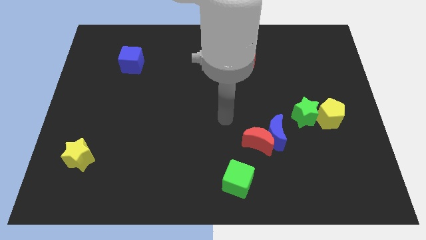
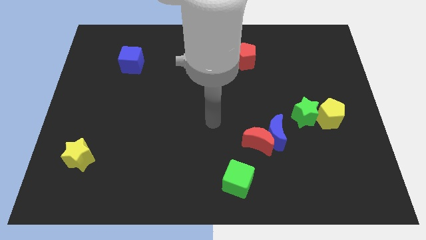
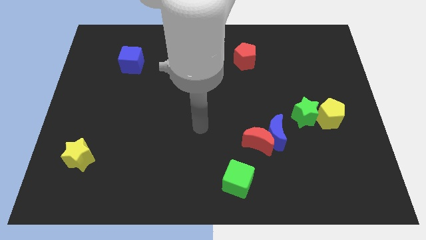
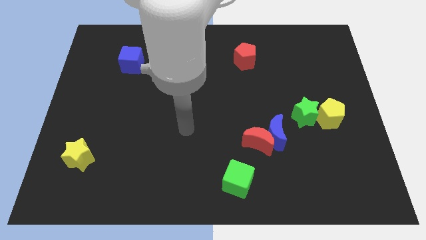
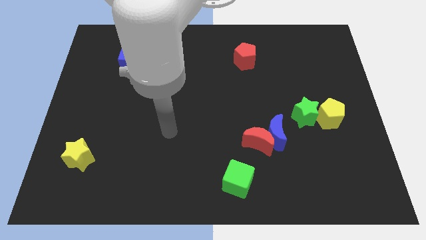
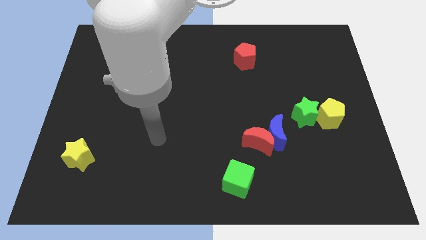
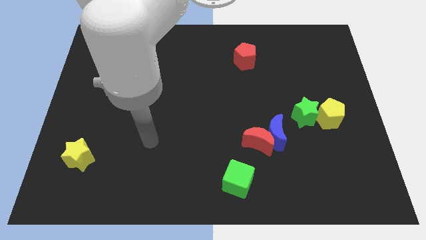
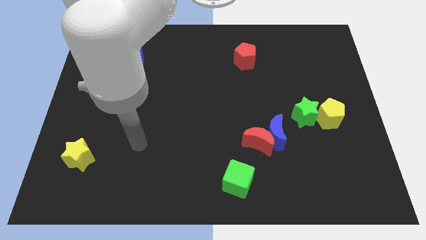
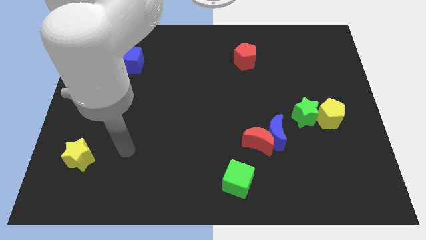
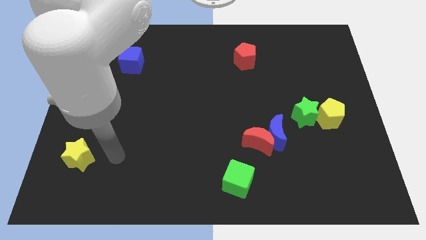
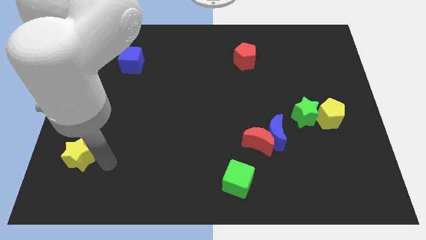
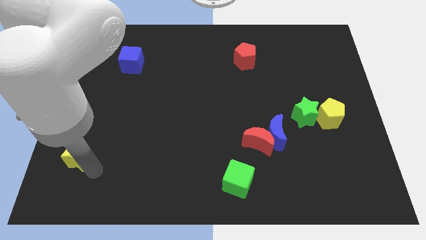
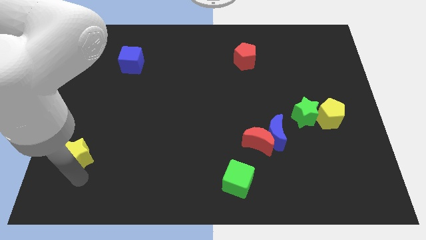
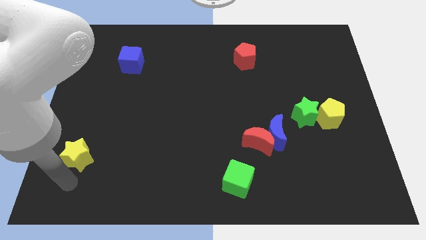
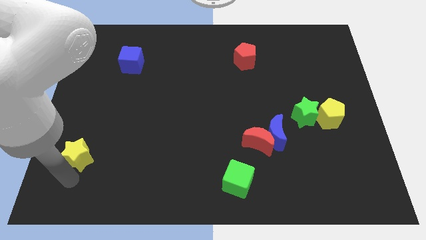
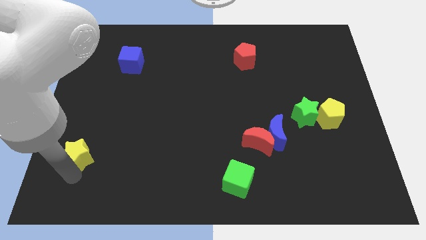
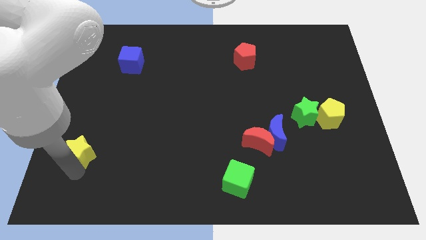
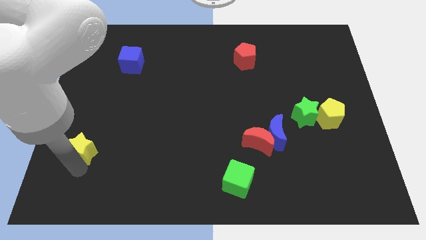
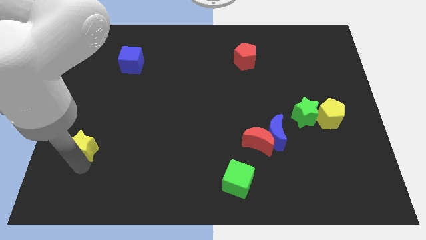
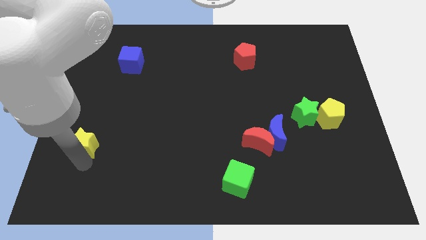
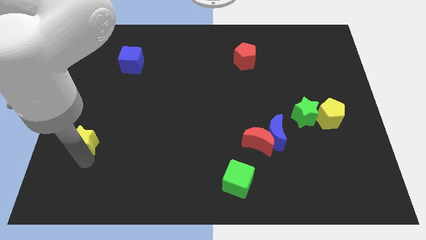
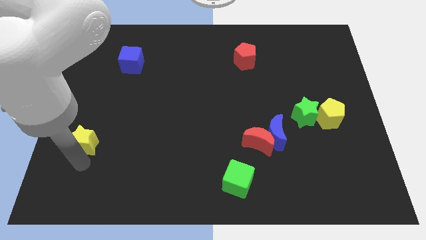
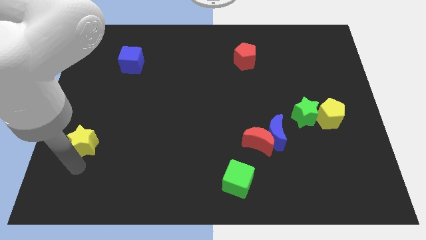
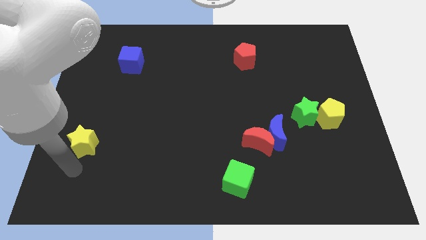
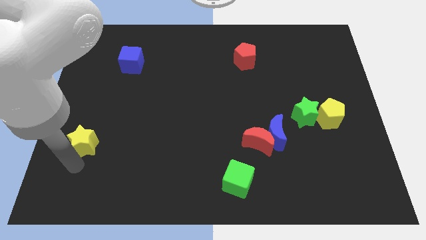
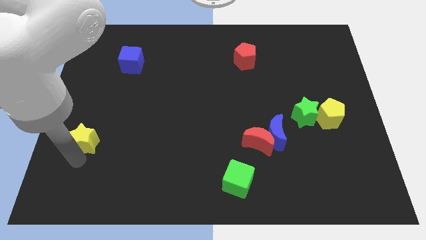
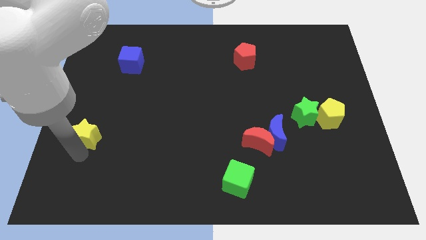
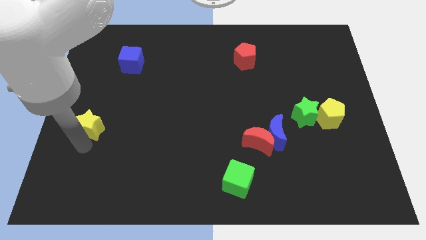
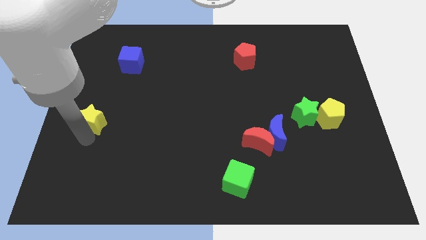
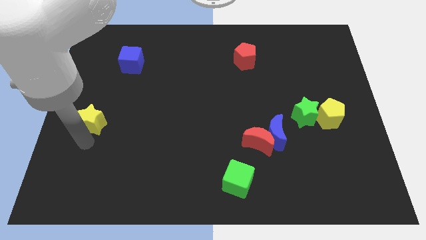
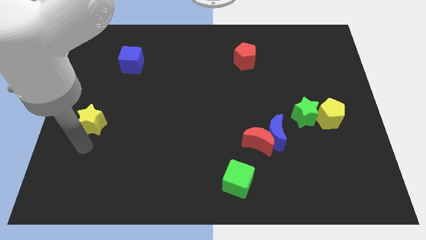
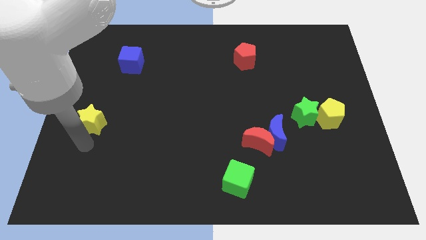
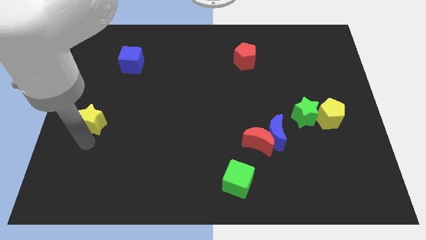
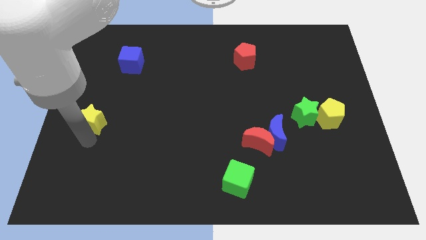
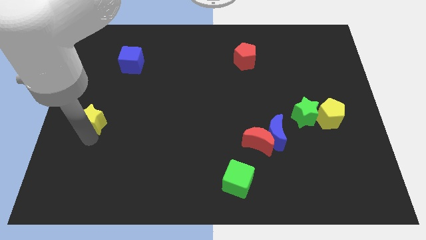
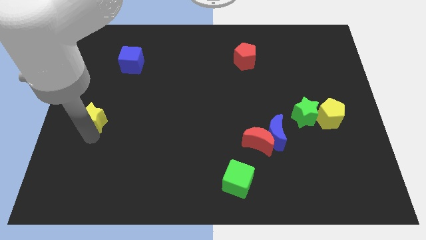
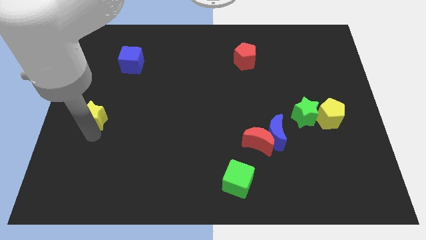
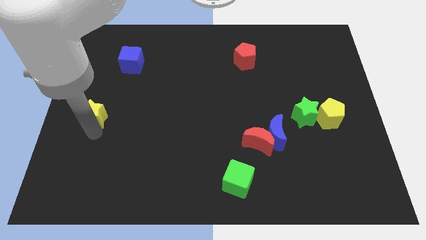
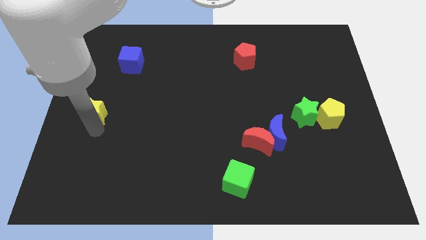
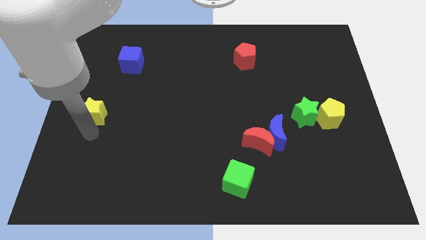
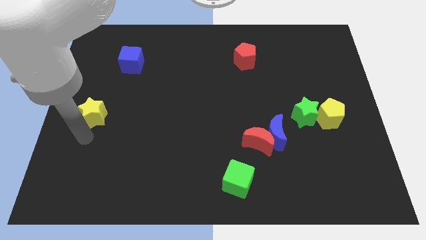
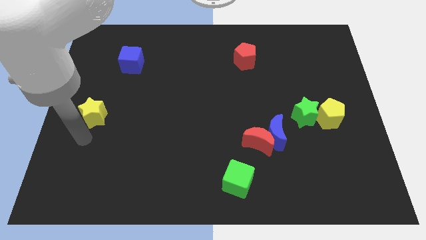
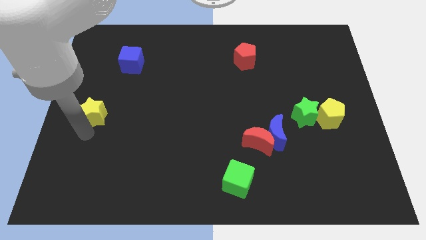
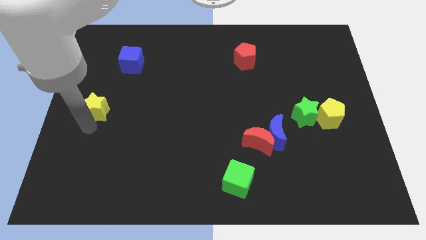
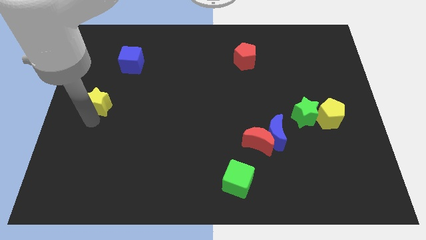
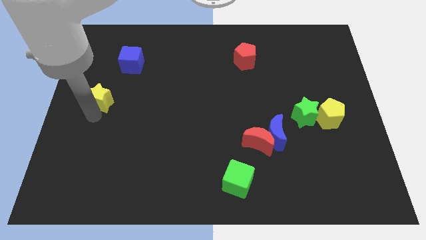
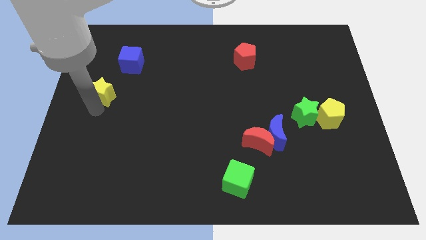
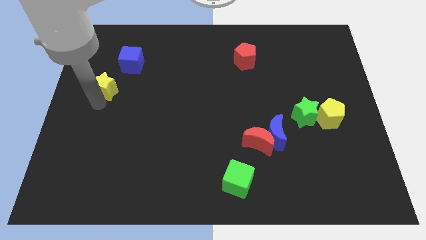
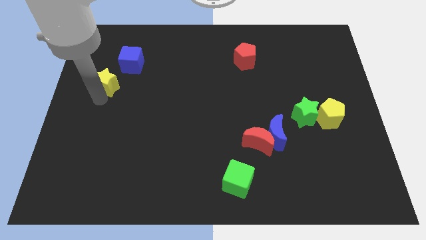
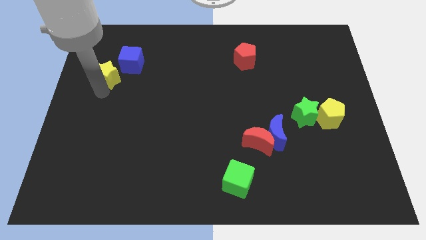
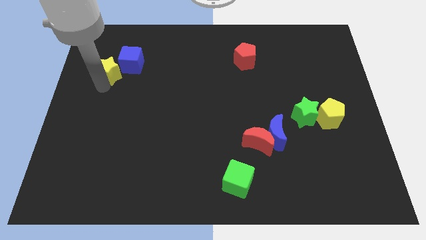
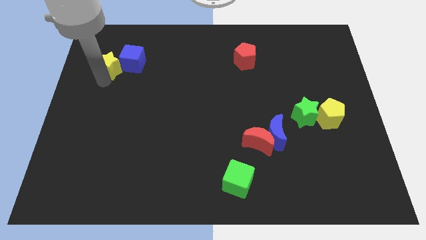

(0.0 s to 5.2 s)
move the yellow star close to the blue cube
